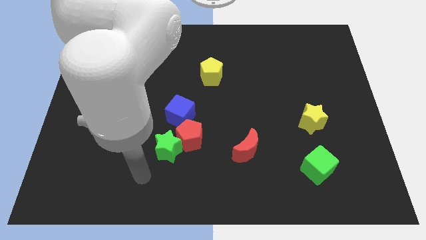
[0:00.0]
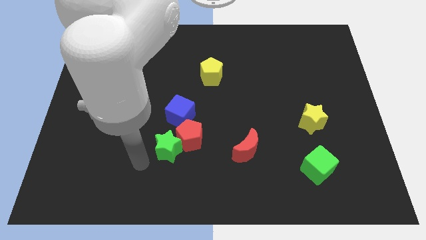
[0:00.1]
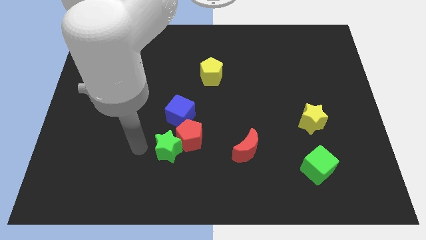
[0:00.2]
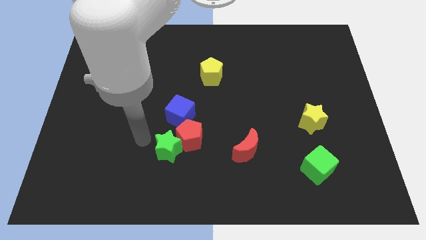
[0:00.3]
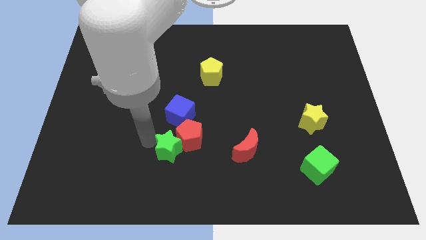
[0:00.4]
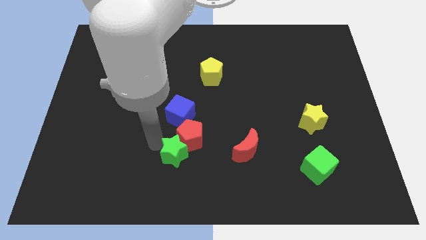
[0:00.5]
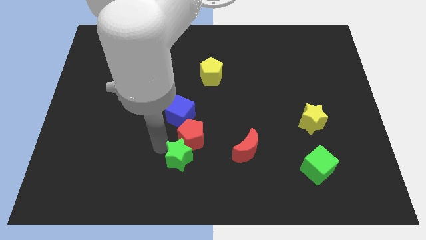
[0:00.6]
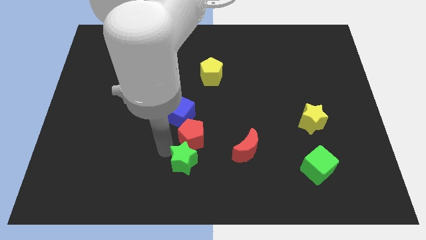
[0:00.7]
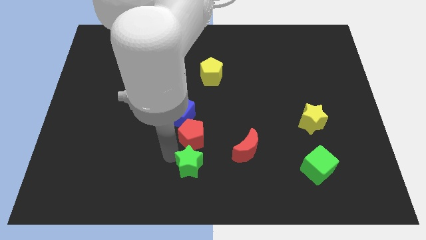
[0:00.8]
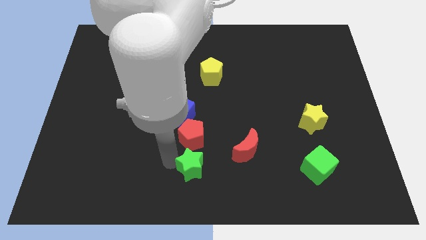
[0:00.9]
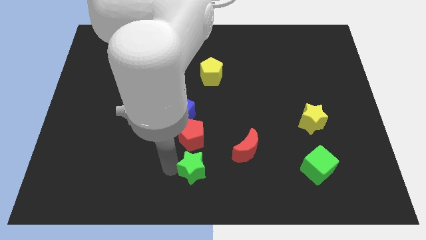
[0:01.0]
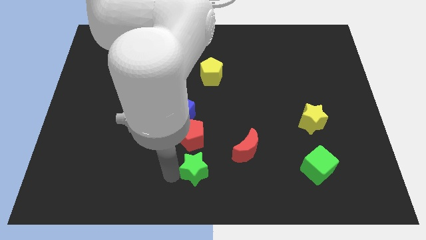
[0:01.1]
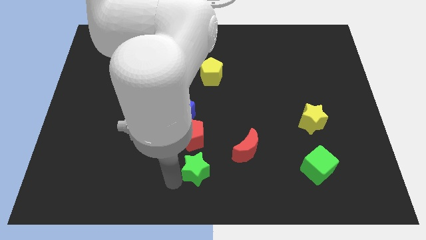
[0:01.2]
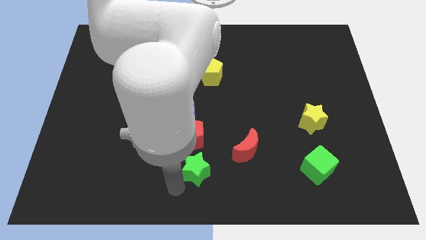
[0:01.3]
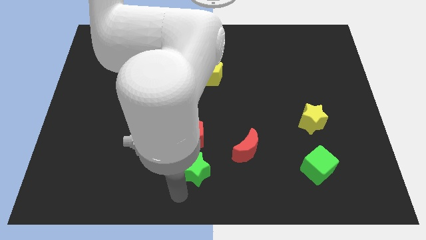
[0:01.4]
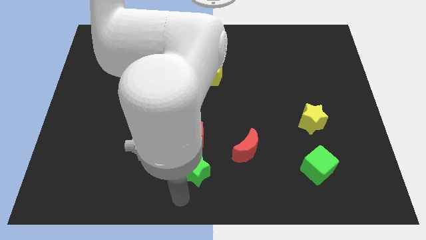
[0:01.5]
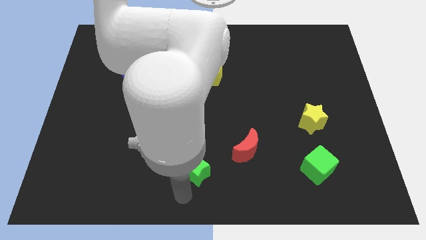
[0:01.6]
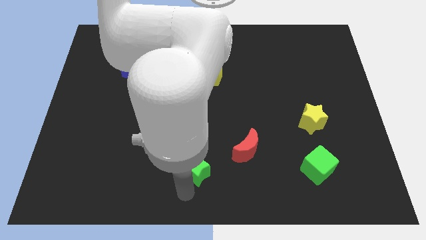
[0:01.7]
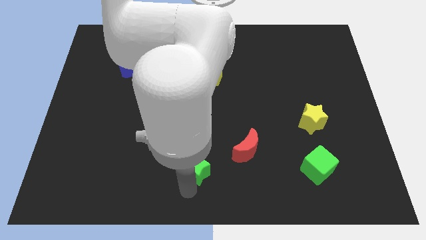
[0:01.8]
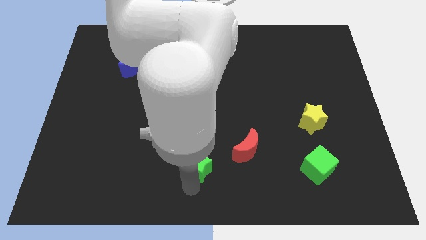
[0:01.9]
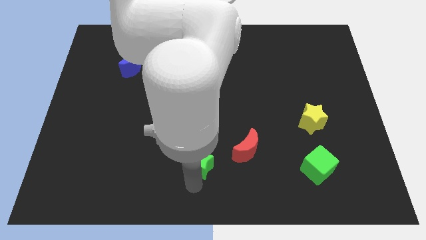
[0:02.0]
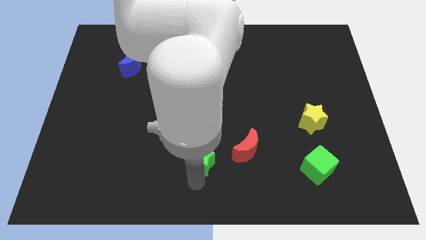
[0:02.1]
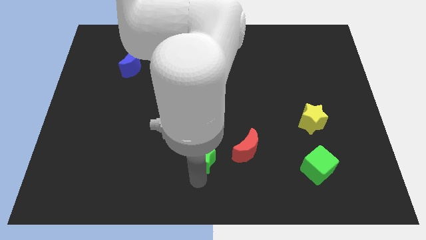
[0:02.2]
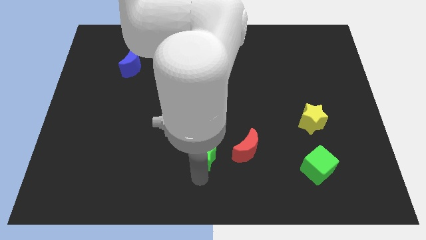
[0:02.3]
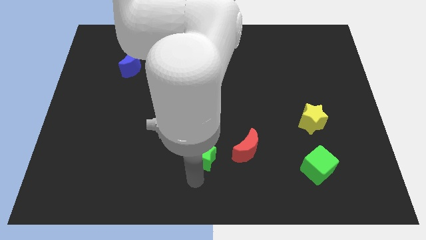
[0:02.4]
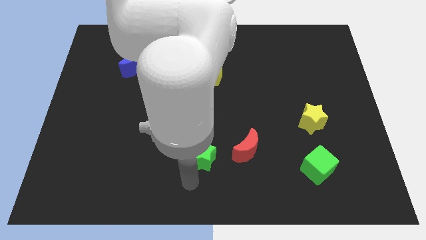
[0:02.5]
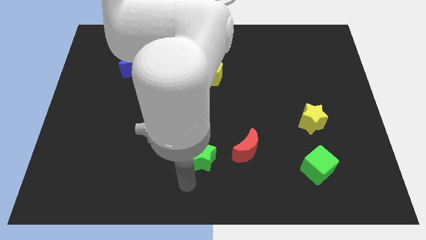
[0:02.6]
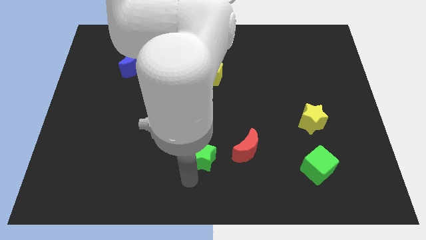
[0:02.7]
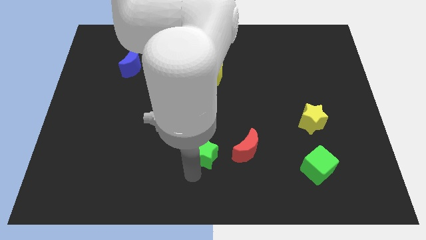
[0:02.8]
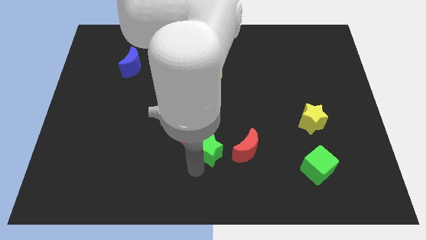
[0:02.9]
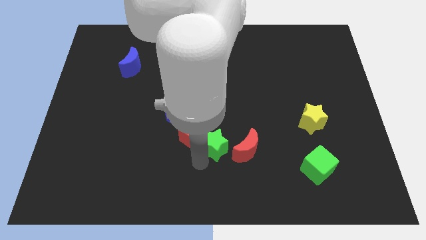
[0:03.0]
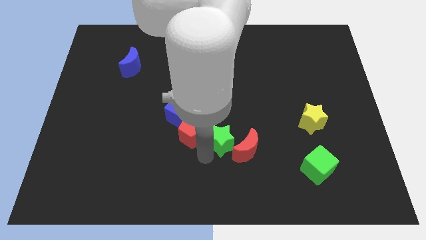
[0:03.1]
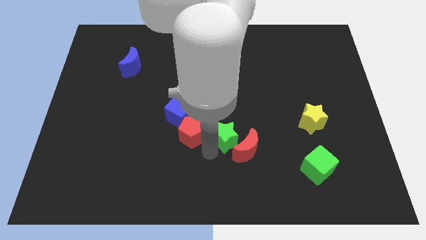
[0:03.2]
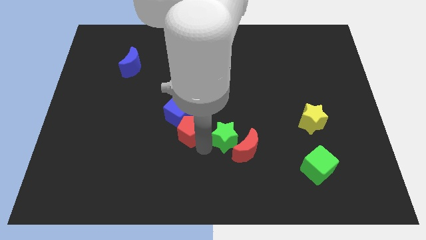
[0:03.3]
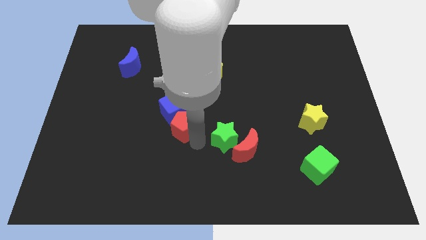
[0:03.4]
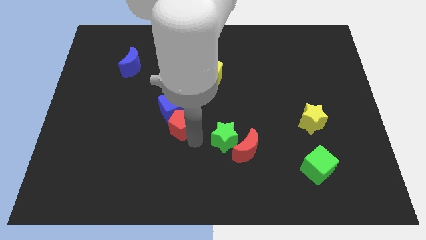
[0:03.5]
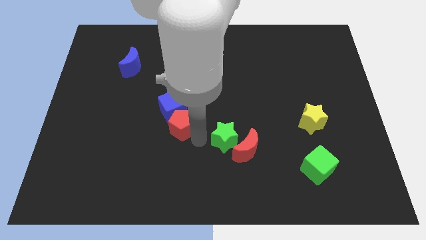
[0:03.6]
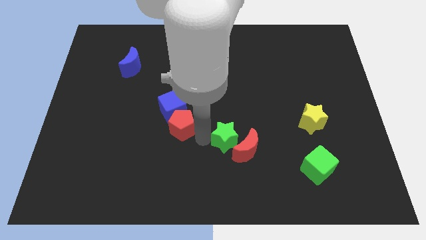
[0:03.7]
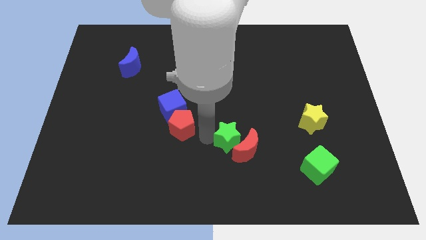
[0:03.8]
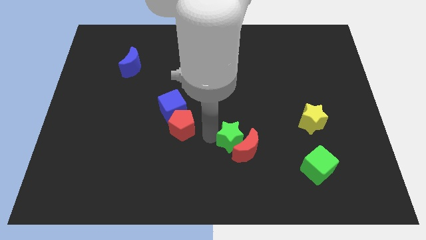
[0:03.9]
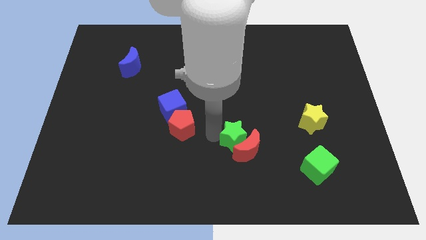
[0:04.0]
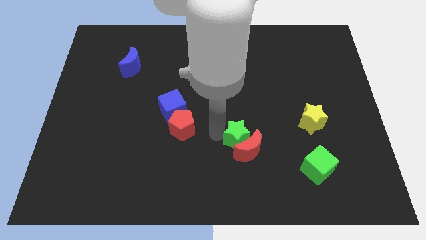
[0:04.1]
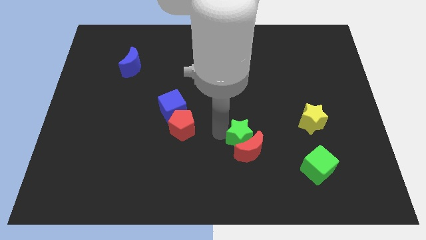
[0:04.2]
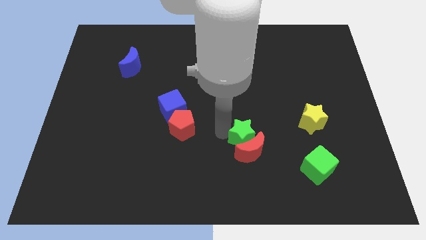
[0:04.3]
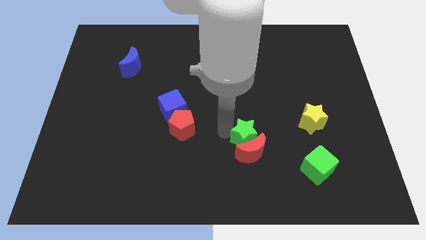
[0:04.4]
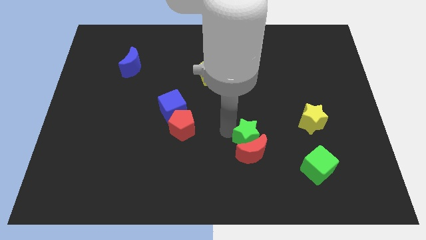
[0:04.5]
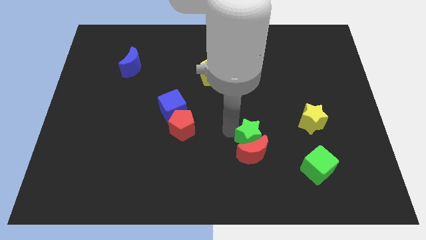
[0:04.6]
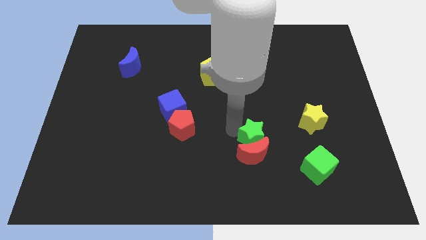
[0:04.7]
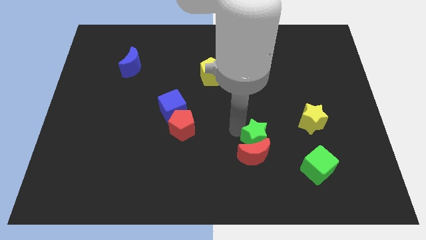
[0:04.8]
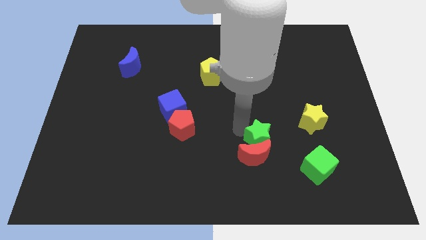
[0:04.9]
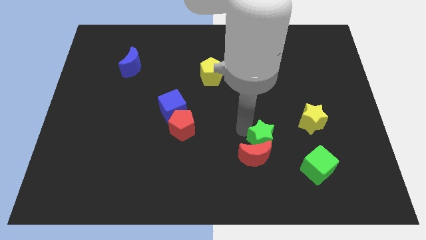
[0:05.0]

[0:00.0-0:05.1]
slide the green star to the right

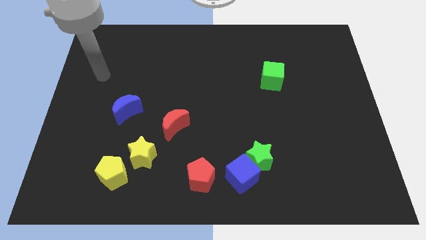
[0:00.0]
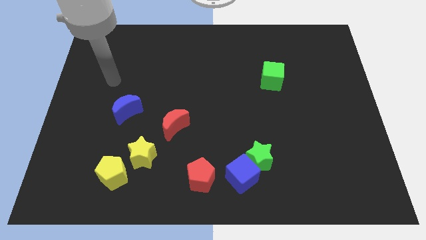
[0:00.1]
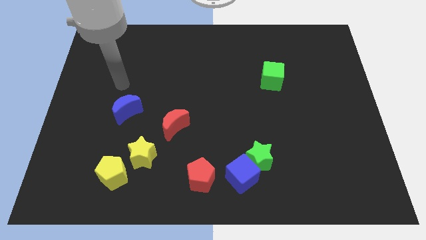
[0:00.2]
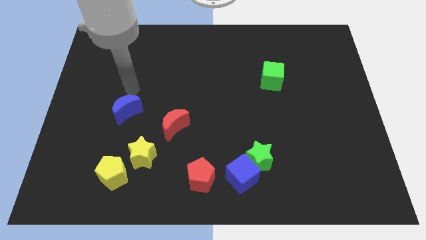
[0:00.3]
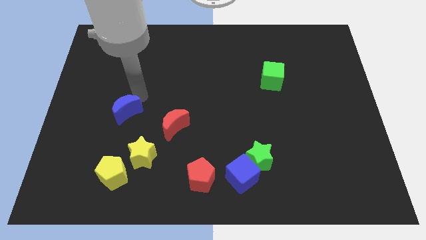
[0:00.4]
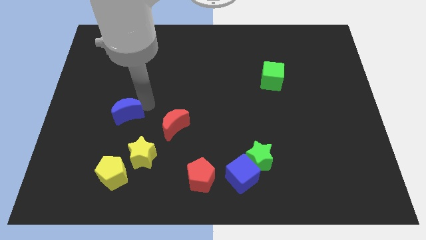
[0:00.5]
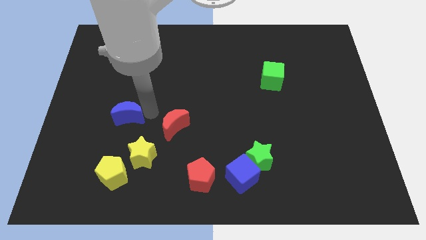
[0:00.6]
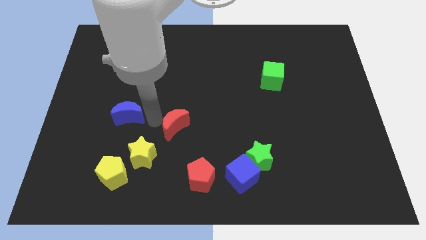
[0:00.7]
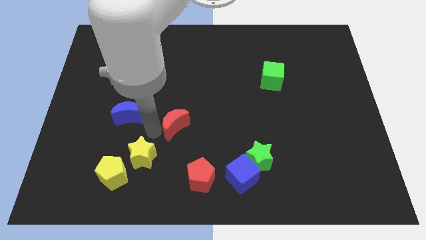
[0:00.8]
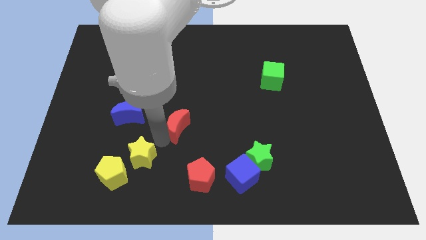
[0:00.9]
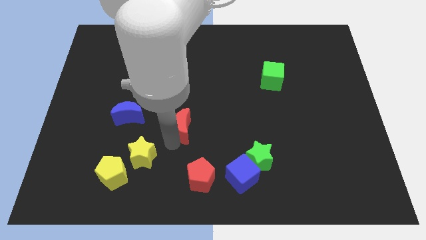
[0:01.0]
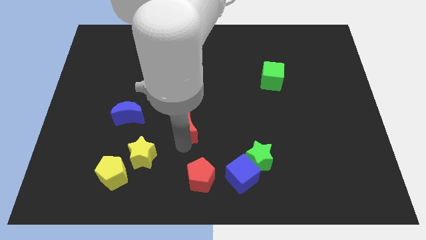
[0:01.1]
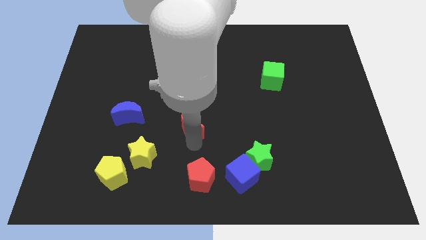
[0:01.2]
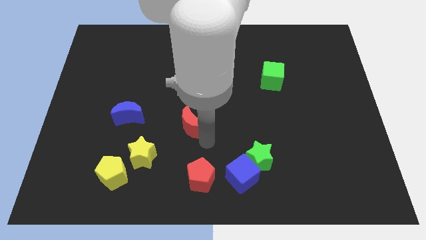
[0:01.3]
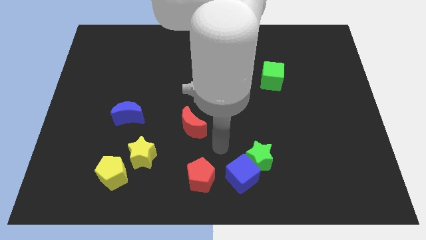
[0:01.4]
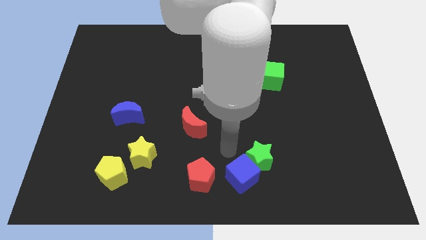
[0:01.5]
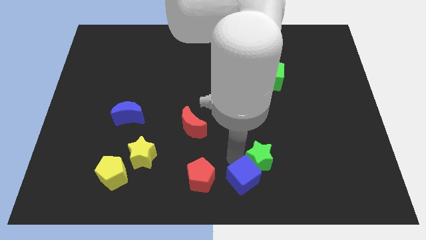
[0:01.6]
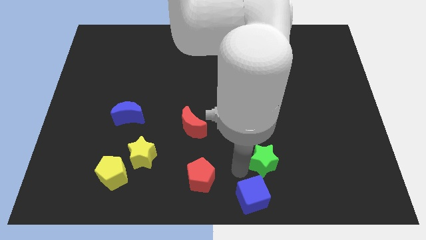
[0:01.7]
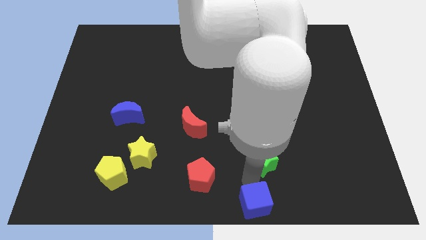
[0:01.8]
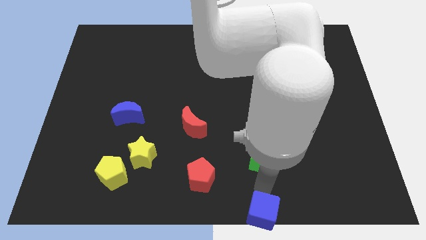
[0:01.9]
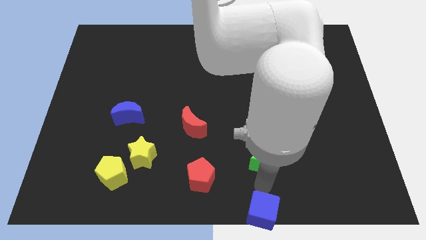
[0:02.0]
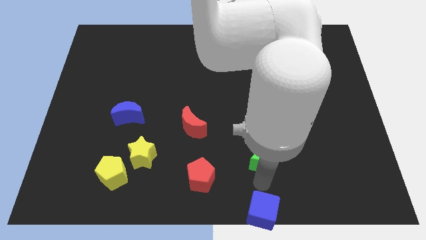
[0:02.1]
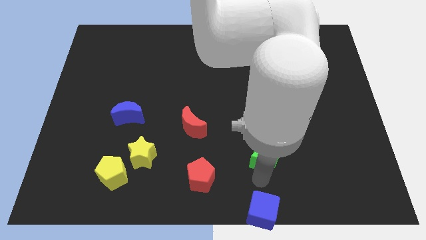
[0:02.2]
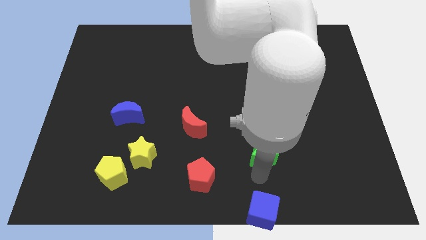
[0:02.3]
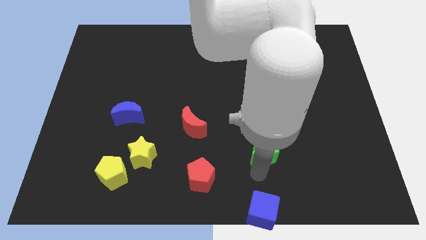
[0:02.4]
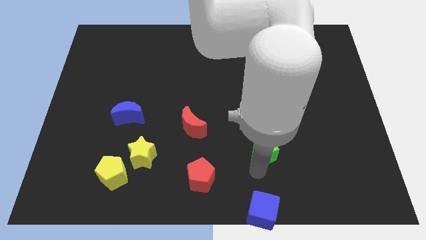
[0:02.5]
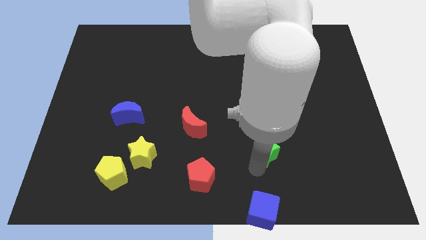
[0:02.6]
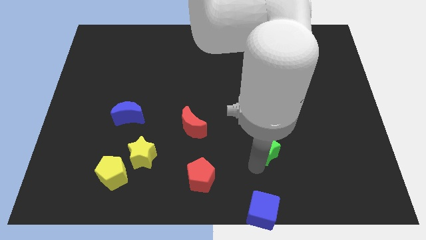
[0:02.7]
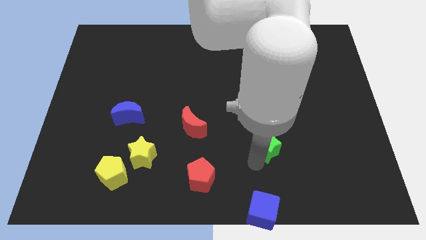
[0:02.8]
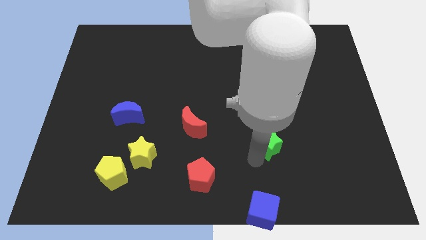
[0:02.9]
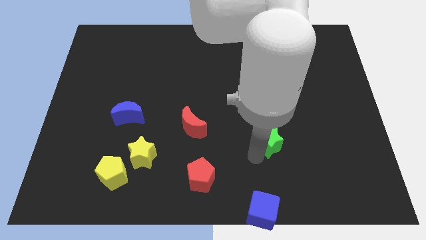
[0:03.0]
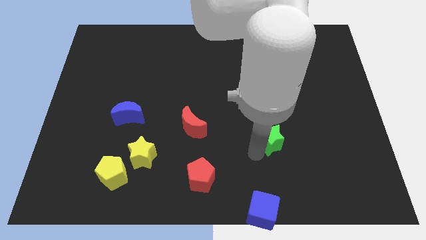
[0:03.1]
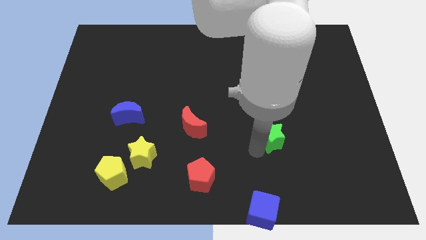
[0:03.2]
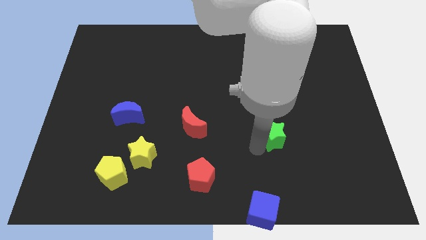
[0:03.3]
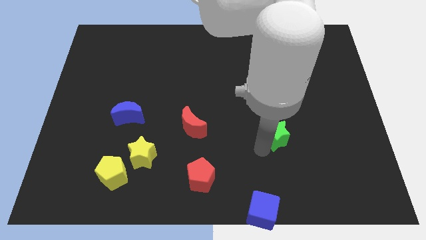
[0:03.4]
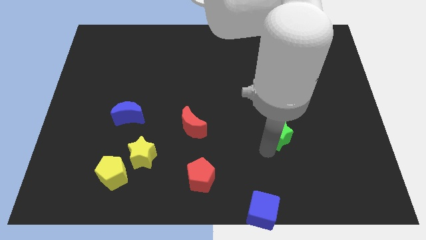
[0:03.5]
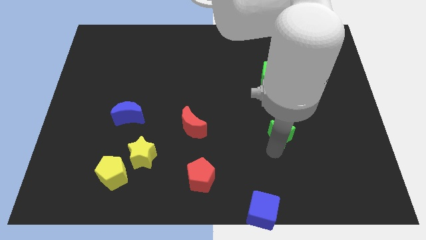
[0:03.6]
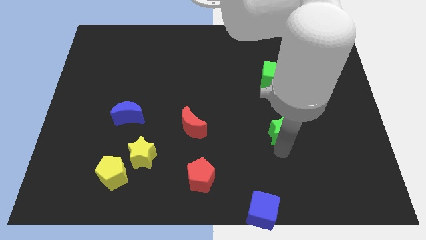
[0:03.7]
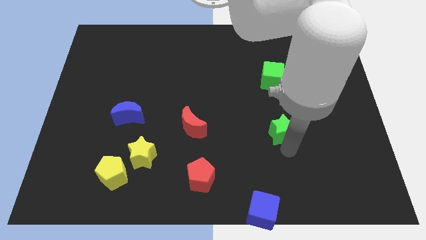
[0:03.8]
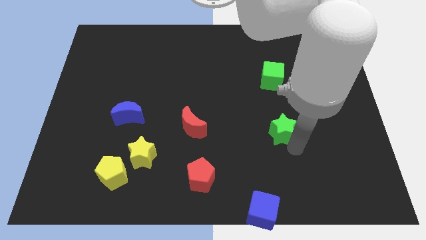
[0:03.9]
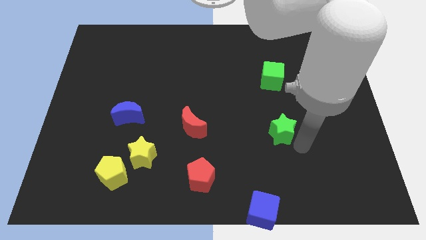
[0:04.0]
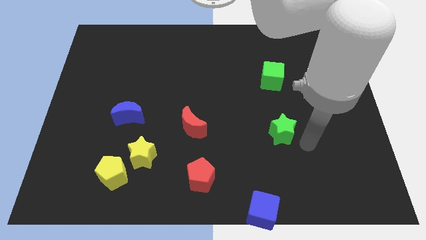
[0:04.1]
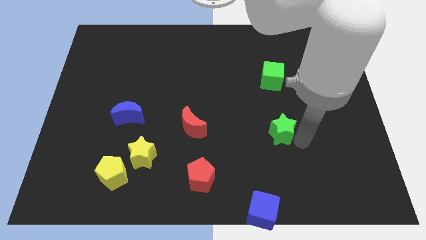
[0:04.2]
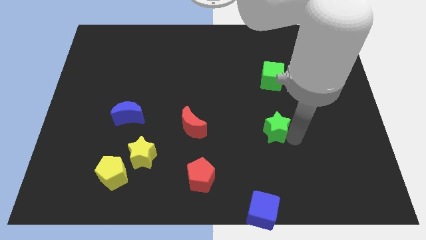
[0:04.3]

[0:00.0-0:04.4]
slide the green star upwards a little
